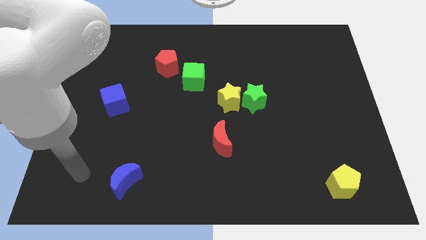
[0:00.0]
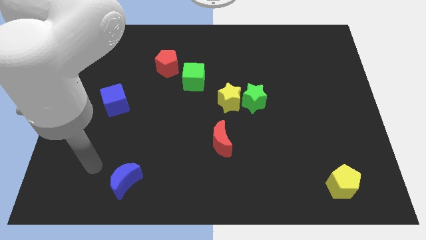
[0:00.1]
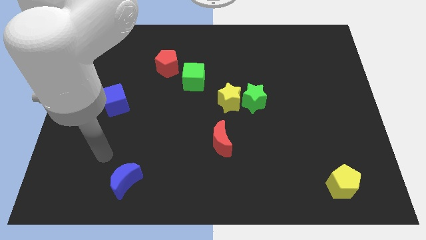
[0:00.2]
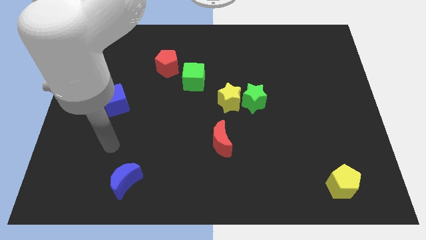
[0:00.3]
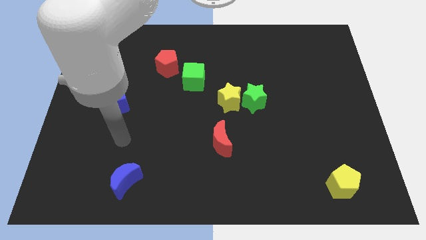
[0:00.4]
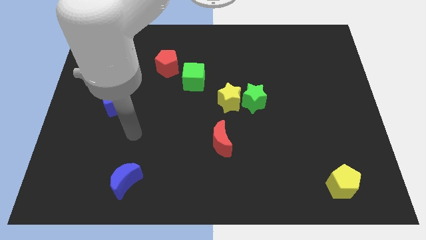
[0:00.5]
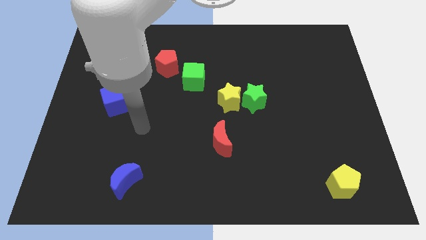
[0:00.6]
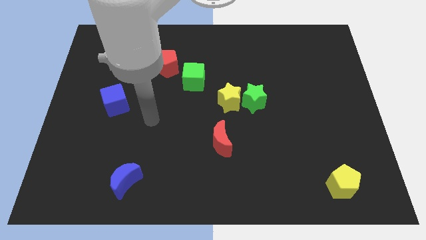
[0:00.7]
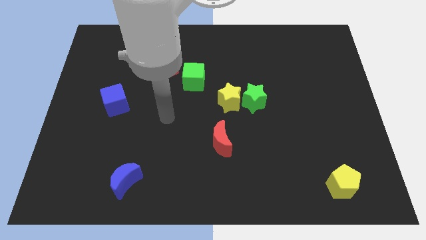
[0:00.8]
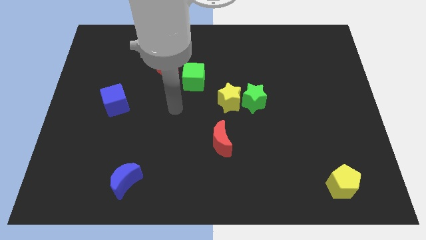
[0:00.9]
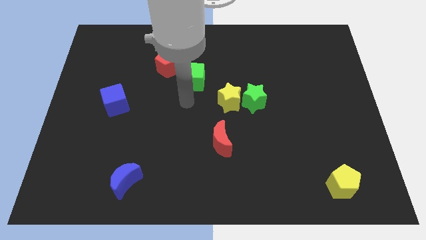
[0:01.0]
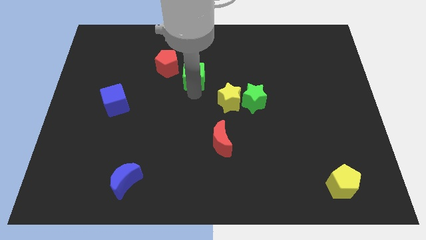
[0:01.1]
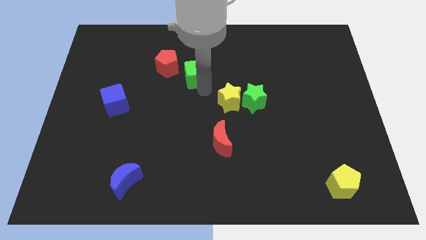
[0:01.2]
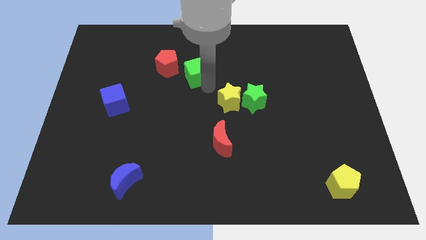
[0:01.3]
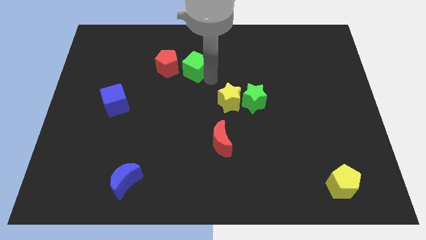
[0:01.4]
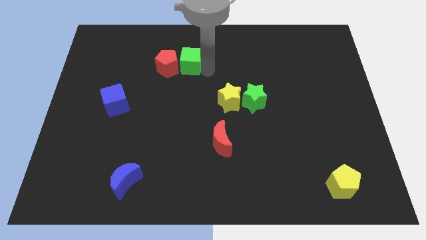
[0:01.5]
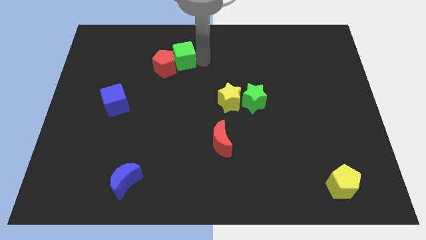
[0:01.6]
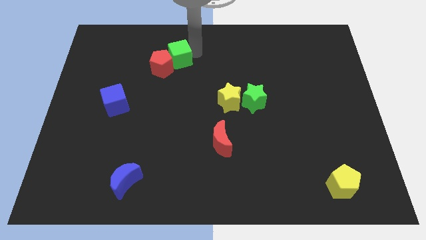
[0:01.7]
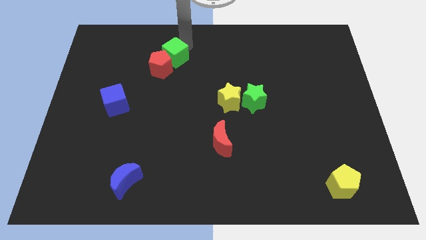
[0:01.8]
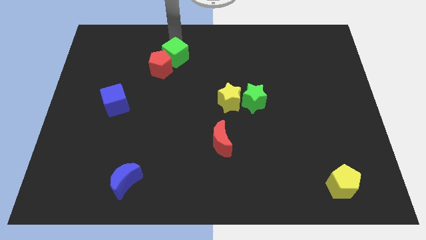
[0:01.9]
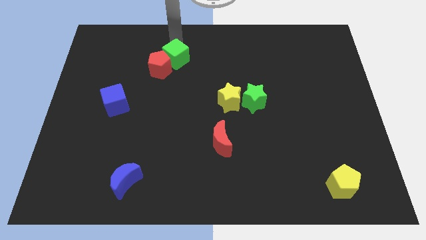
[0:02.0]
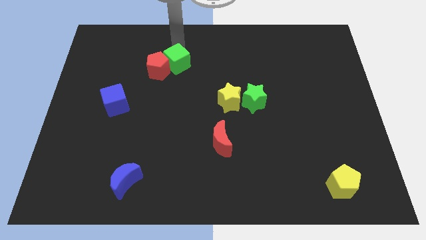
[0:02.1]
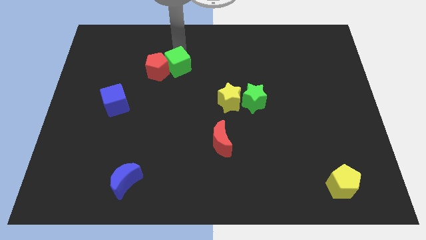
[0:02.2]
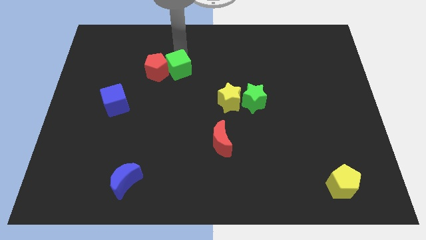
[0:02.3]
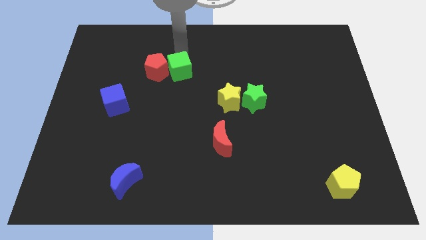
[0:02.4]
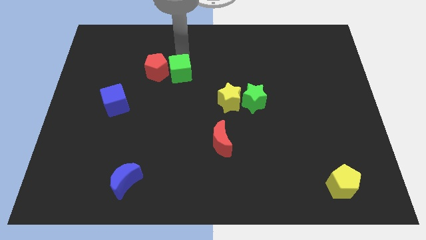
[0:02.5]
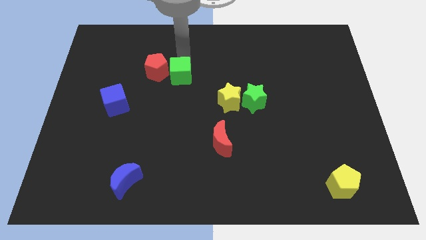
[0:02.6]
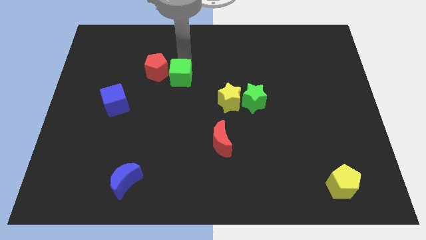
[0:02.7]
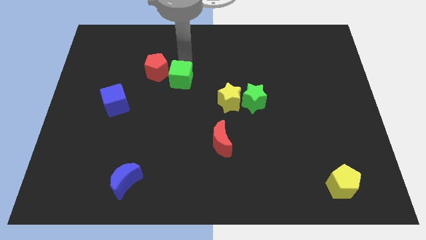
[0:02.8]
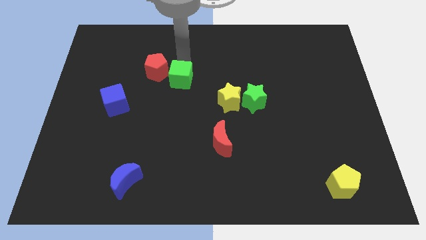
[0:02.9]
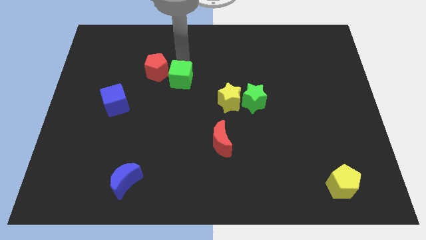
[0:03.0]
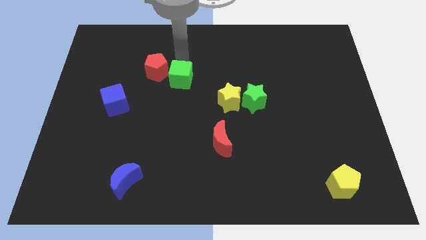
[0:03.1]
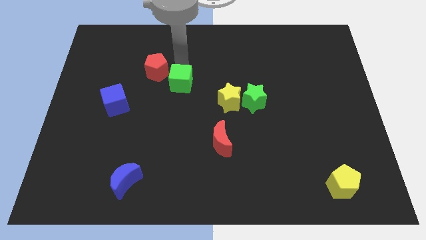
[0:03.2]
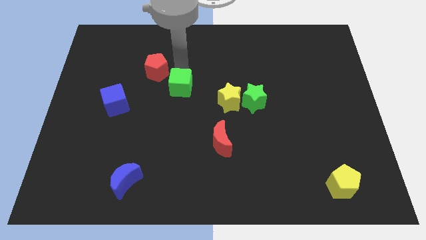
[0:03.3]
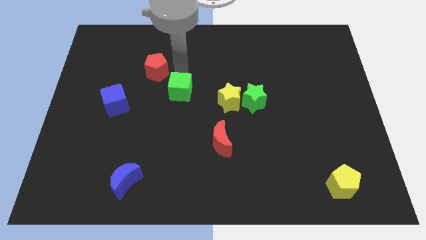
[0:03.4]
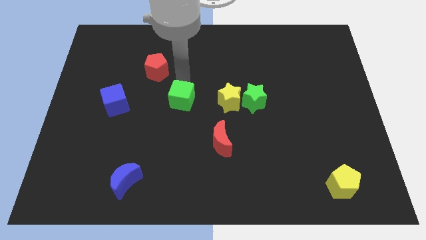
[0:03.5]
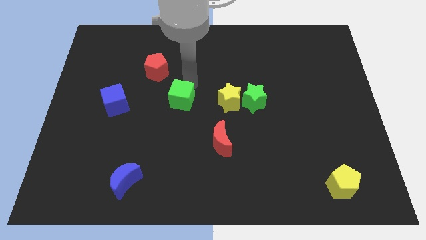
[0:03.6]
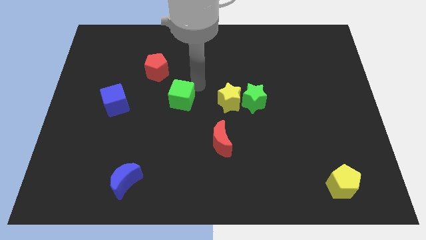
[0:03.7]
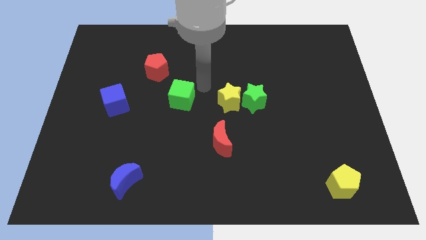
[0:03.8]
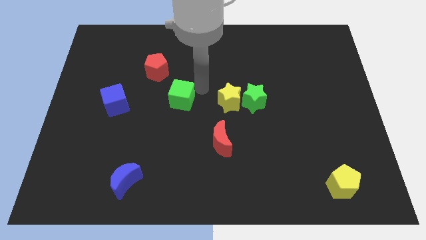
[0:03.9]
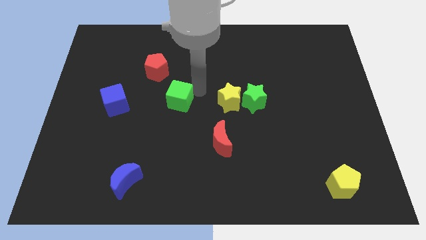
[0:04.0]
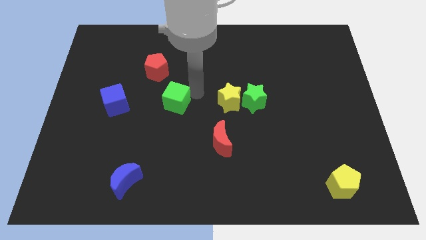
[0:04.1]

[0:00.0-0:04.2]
move the green cube downwards and then to the left a little

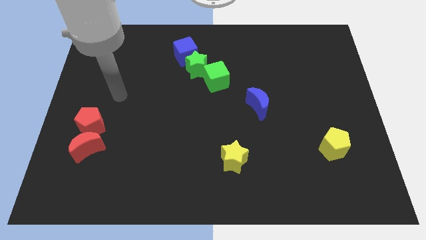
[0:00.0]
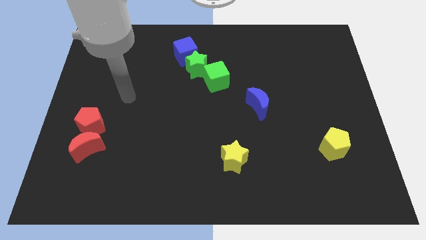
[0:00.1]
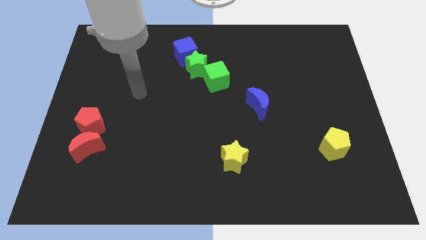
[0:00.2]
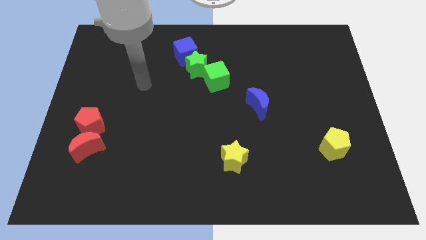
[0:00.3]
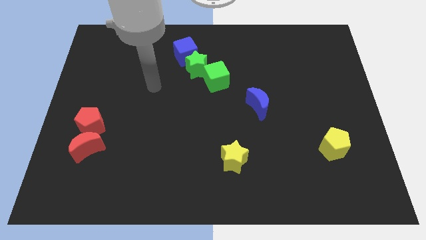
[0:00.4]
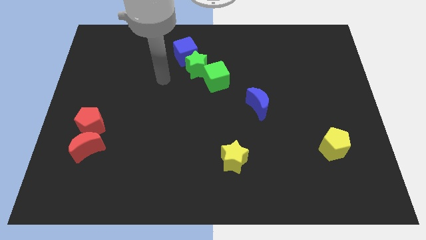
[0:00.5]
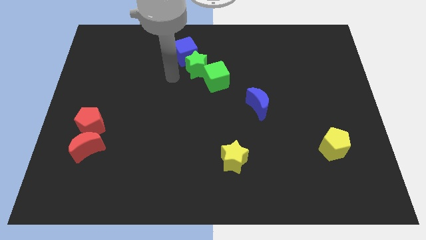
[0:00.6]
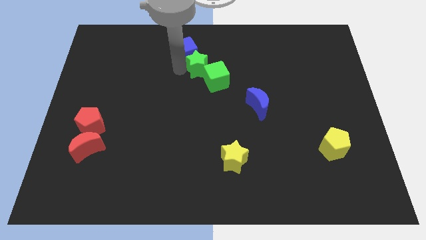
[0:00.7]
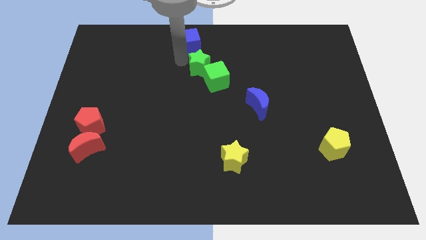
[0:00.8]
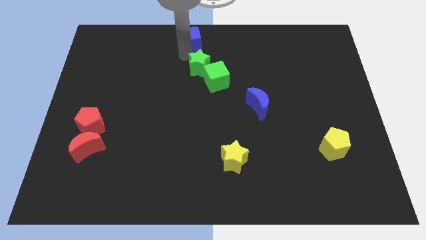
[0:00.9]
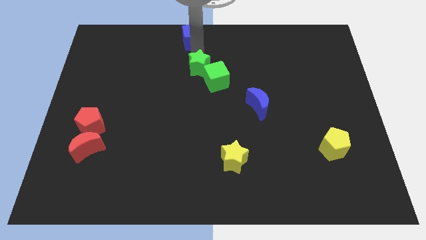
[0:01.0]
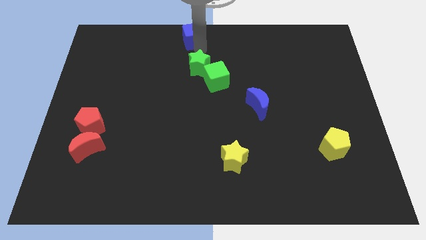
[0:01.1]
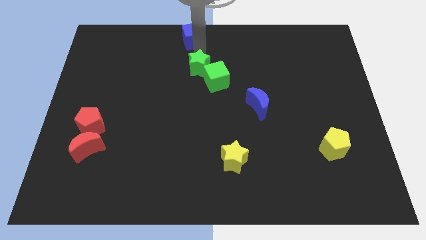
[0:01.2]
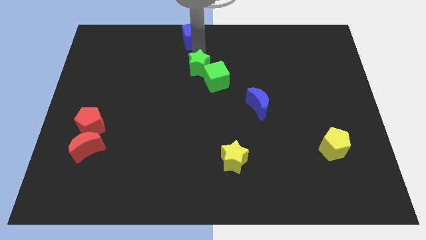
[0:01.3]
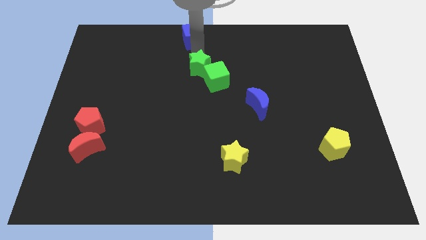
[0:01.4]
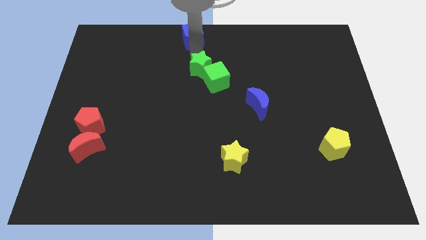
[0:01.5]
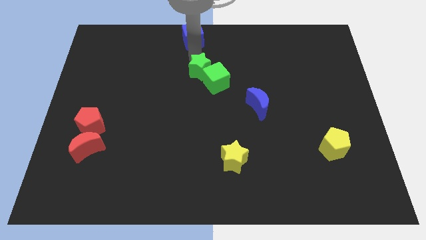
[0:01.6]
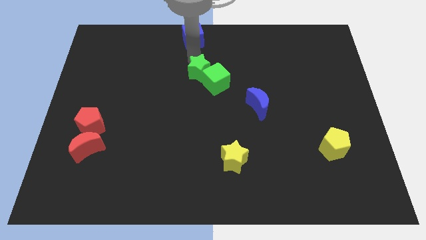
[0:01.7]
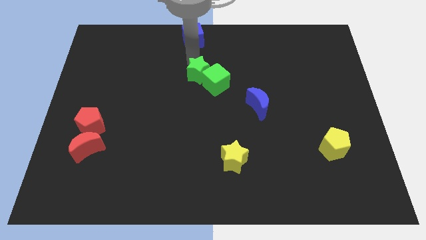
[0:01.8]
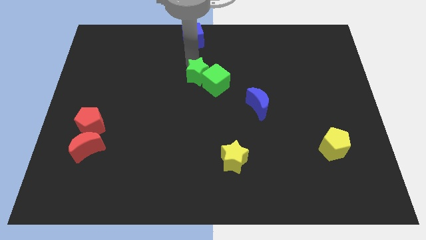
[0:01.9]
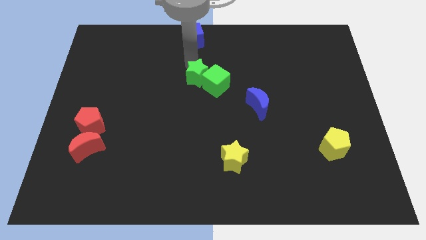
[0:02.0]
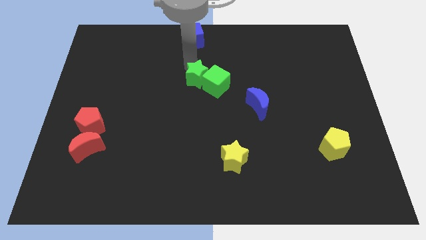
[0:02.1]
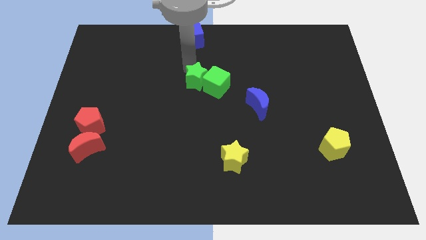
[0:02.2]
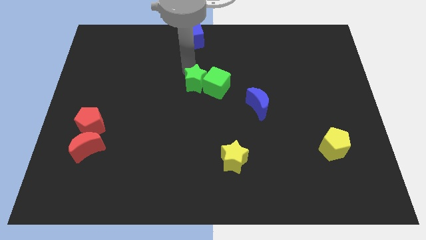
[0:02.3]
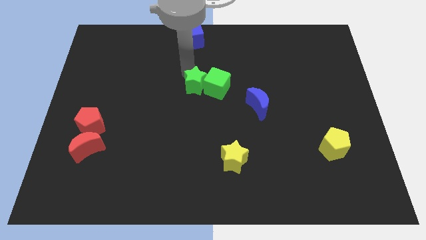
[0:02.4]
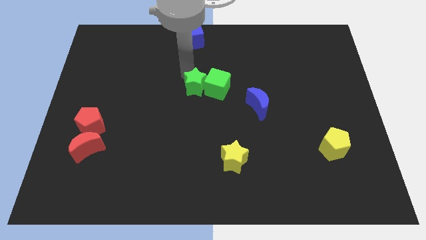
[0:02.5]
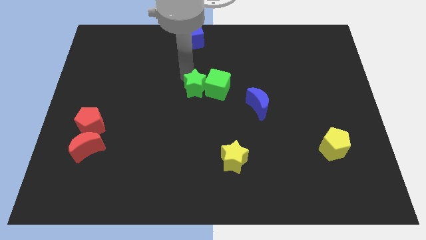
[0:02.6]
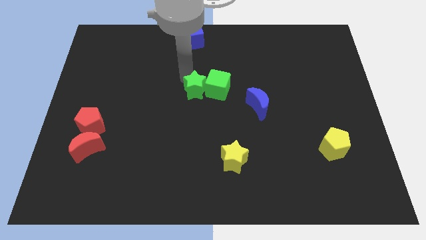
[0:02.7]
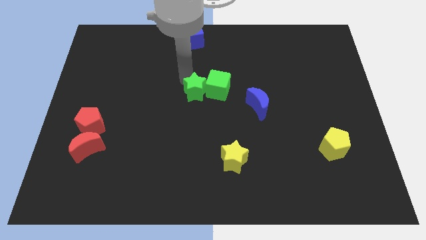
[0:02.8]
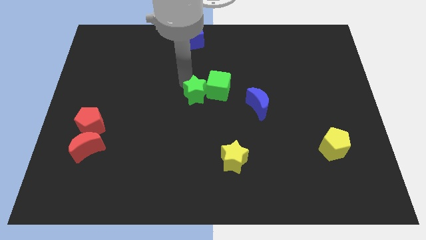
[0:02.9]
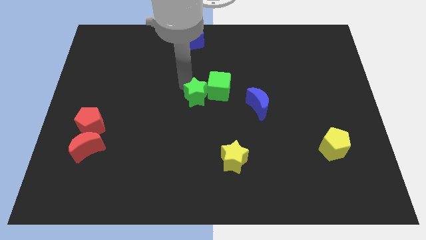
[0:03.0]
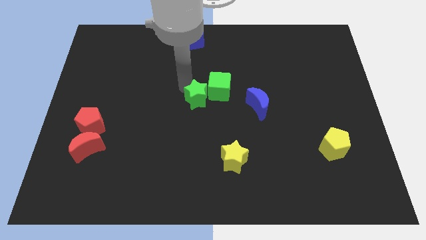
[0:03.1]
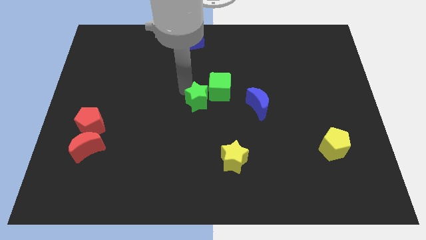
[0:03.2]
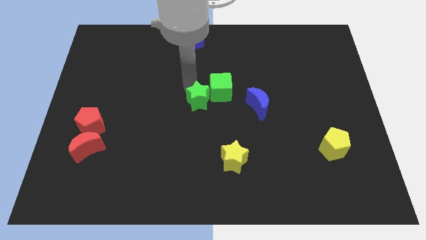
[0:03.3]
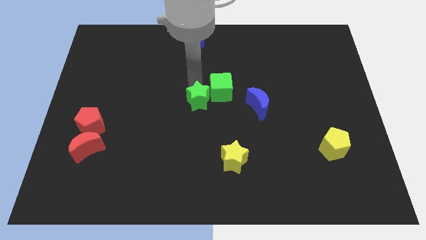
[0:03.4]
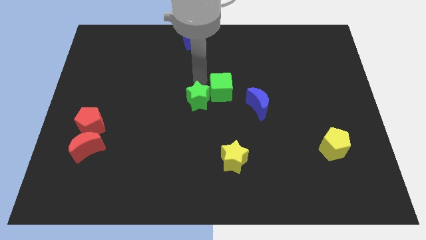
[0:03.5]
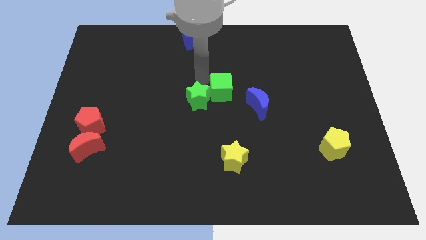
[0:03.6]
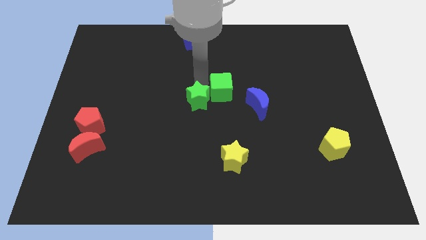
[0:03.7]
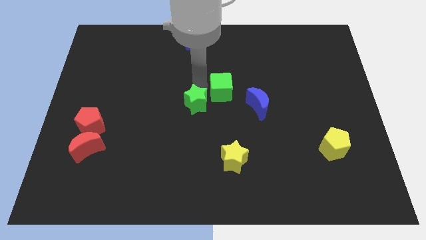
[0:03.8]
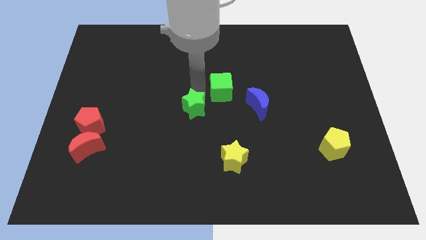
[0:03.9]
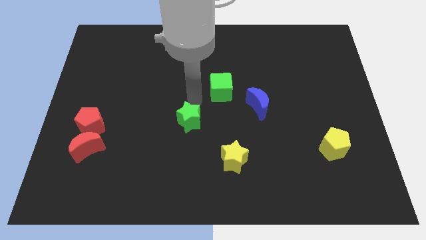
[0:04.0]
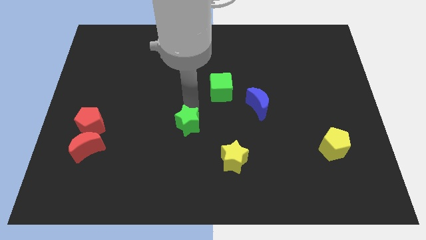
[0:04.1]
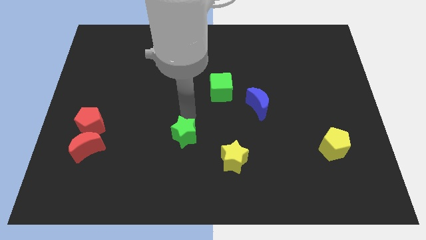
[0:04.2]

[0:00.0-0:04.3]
push the green star downwards
